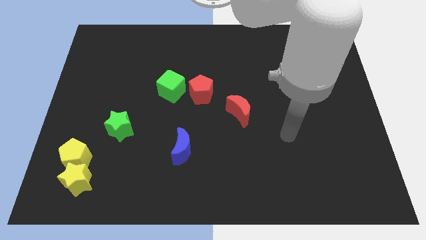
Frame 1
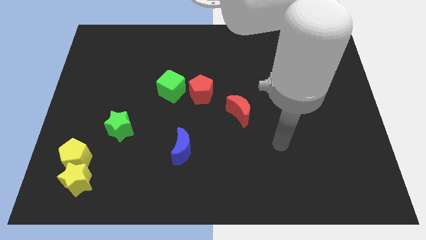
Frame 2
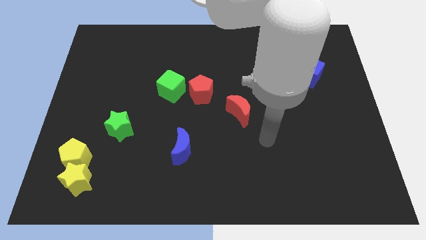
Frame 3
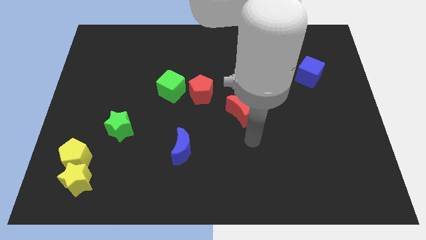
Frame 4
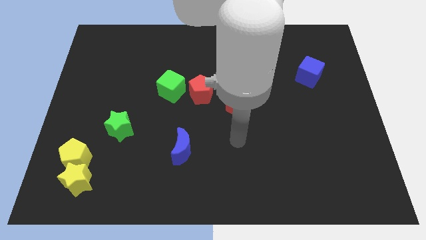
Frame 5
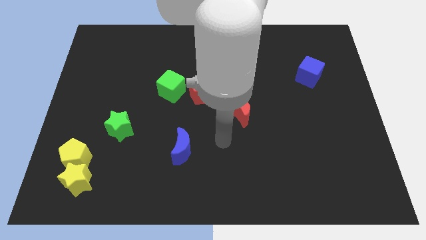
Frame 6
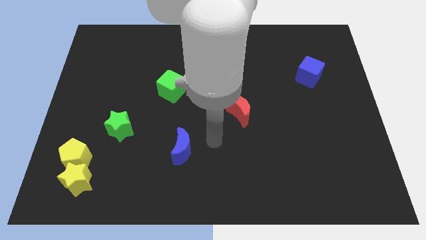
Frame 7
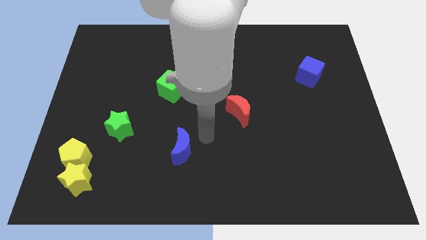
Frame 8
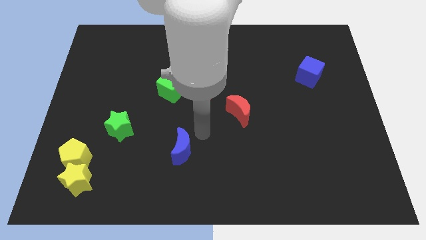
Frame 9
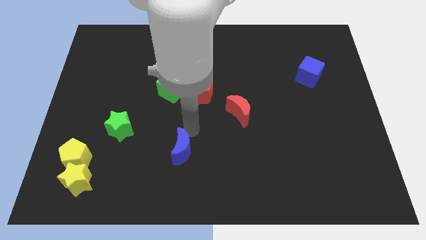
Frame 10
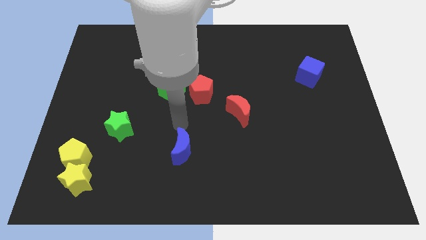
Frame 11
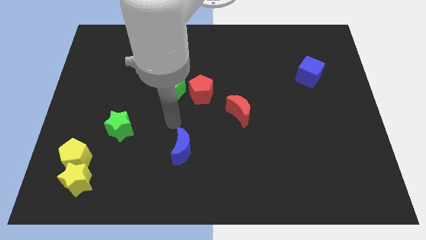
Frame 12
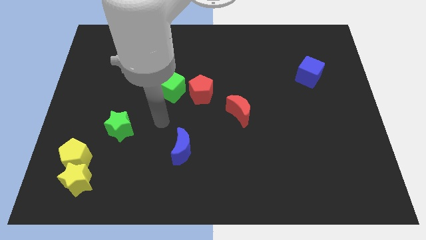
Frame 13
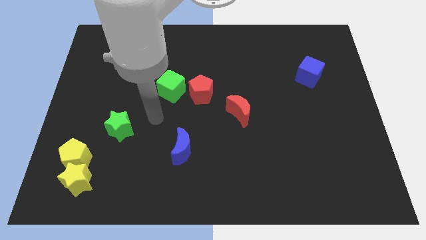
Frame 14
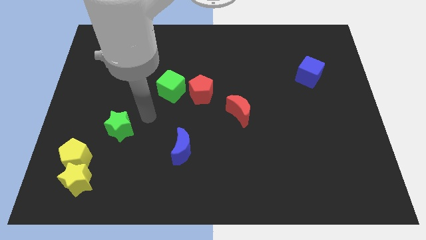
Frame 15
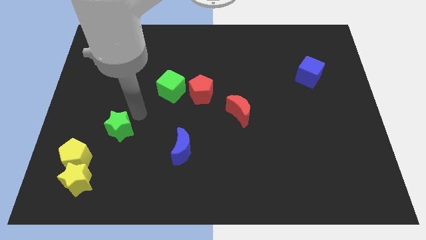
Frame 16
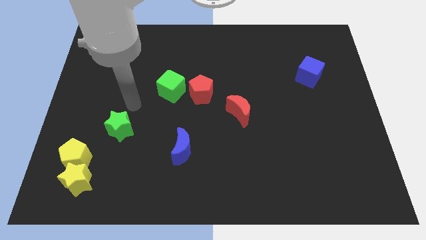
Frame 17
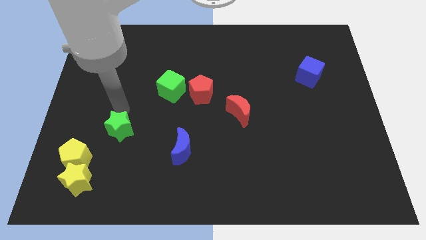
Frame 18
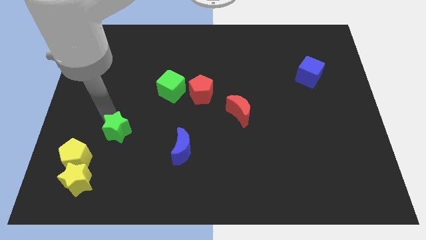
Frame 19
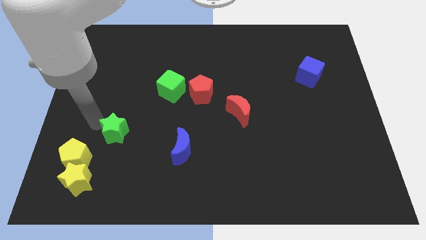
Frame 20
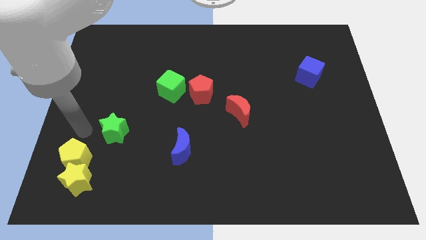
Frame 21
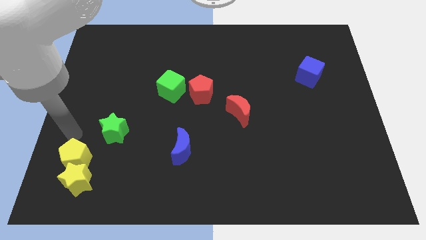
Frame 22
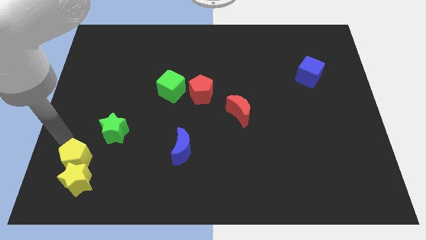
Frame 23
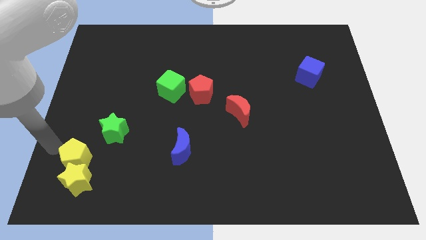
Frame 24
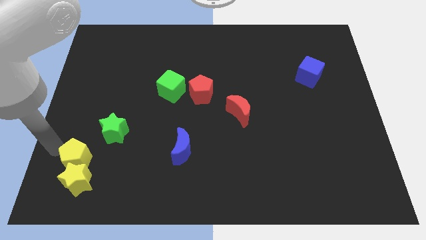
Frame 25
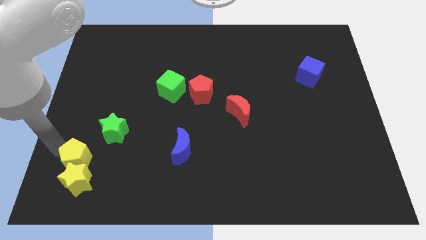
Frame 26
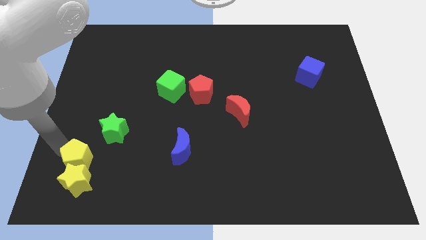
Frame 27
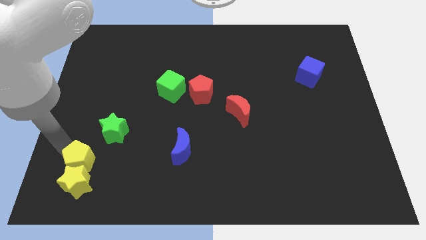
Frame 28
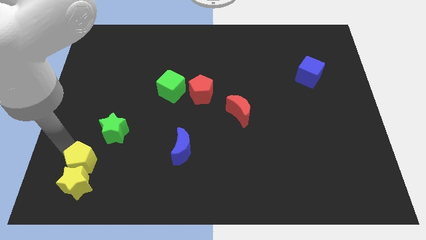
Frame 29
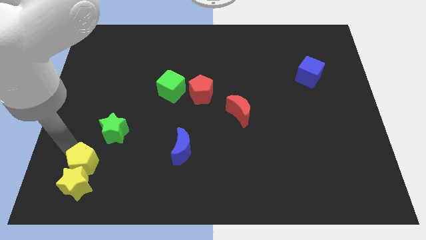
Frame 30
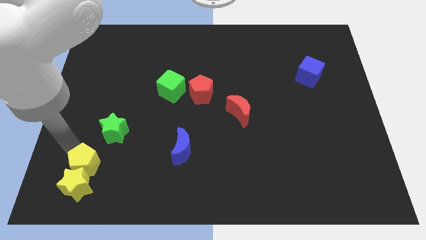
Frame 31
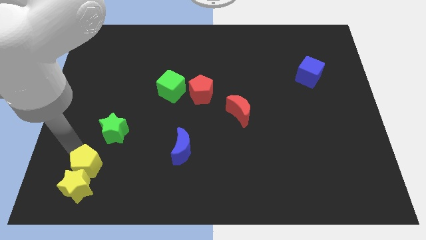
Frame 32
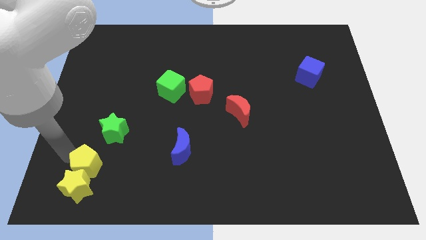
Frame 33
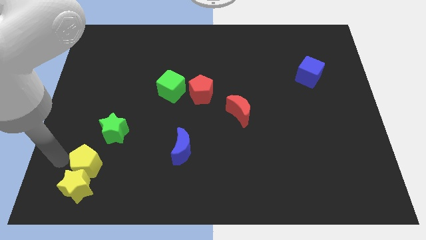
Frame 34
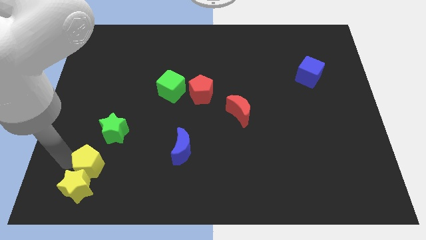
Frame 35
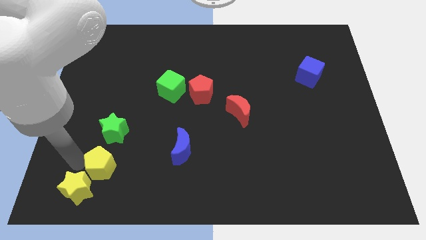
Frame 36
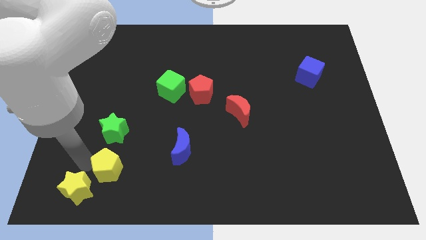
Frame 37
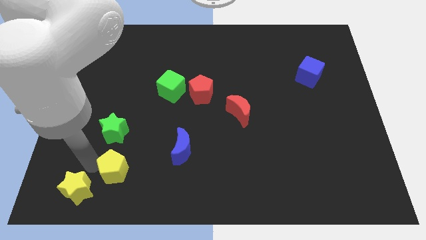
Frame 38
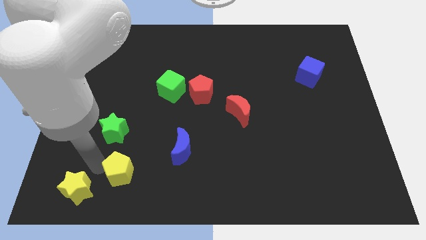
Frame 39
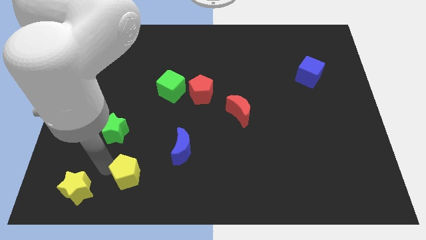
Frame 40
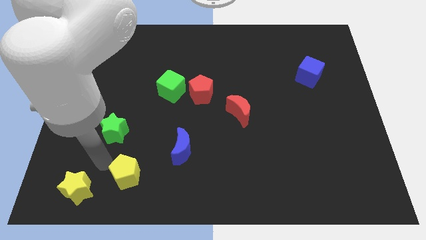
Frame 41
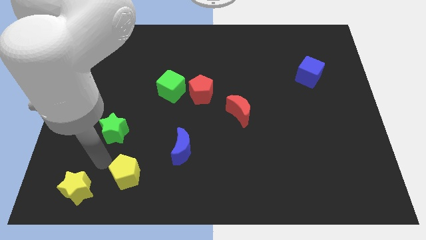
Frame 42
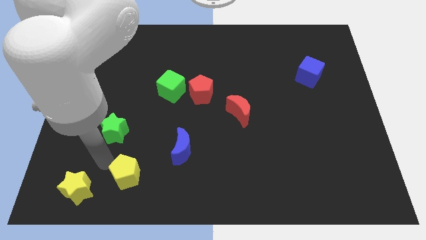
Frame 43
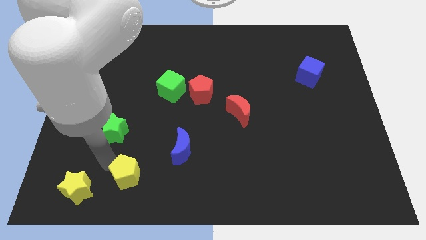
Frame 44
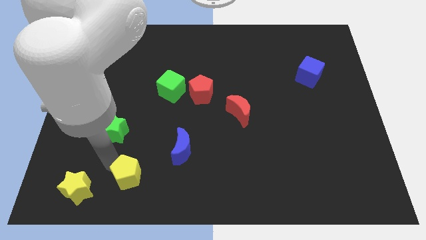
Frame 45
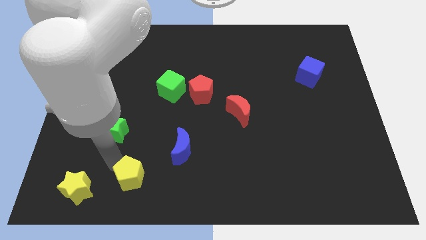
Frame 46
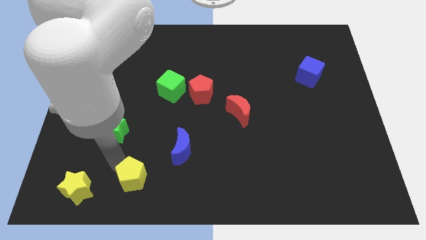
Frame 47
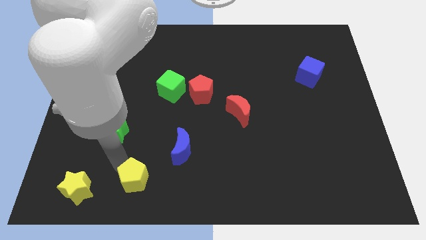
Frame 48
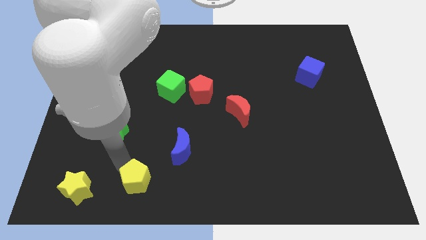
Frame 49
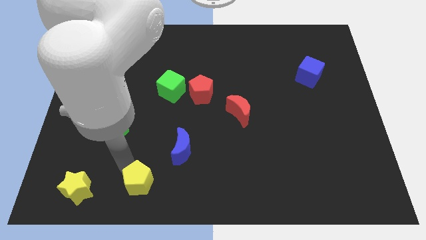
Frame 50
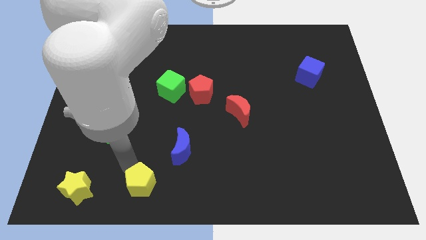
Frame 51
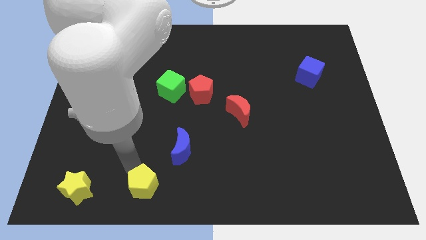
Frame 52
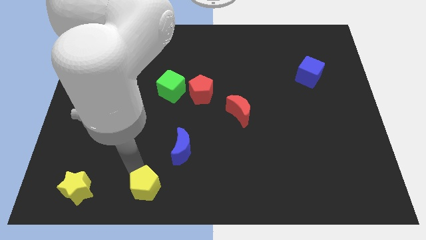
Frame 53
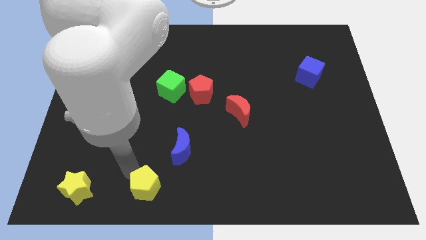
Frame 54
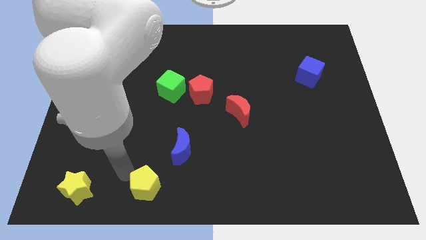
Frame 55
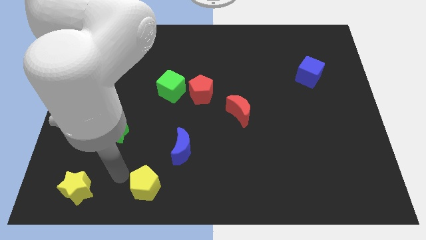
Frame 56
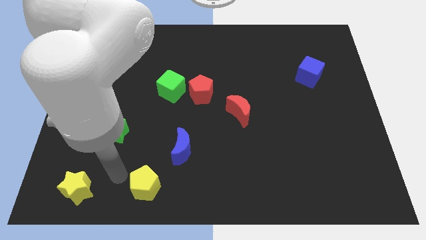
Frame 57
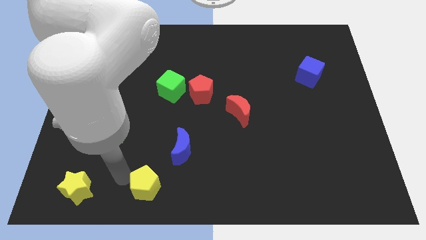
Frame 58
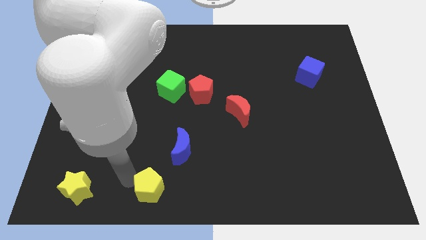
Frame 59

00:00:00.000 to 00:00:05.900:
push the yellow pentagon to the bottom side

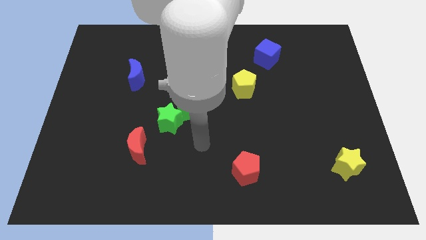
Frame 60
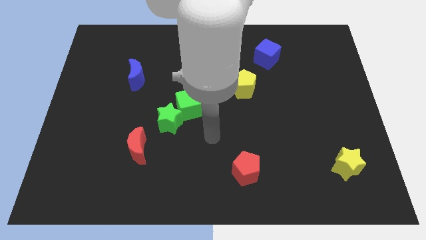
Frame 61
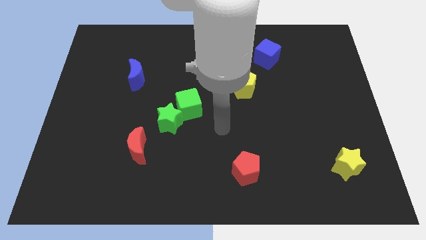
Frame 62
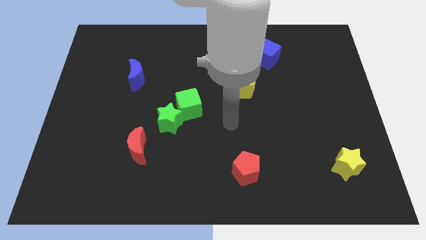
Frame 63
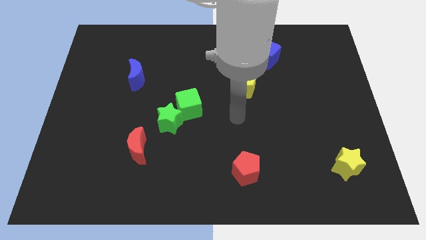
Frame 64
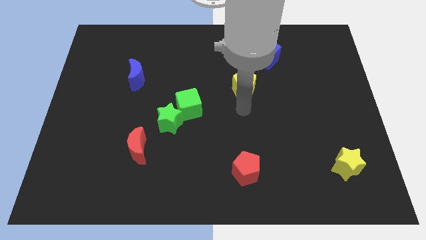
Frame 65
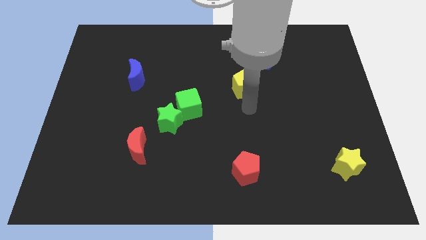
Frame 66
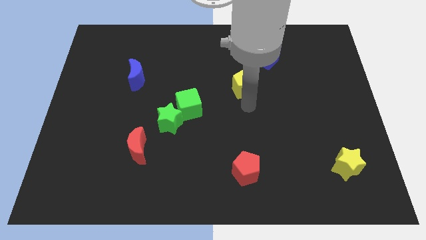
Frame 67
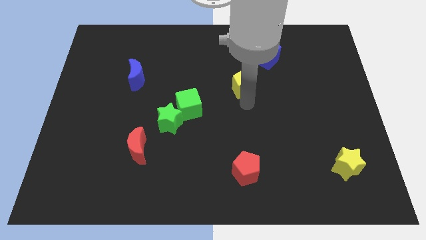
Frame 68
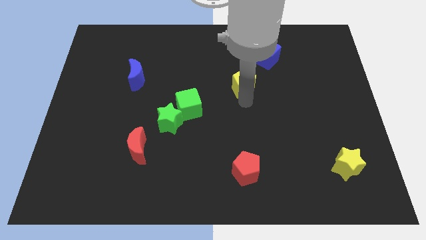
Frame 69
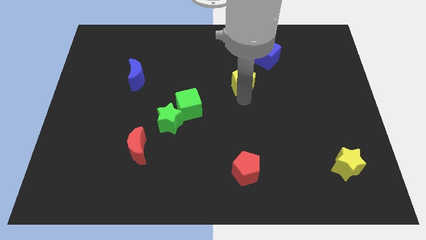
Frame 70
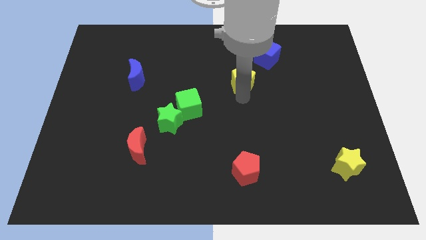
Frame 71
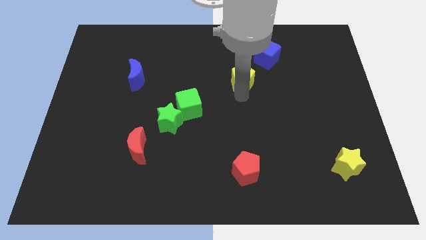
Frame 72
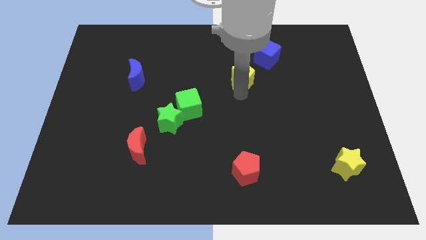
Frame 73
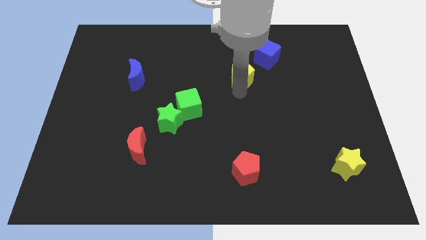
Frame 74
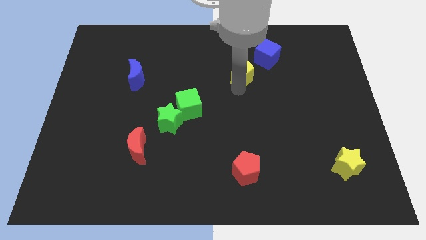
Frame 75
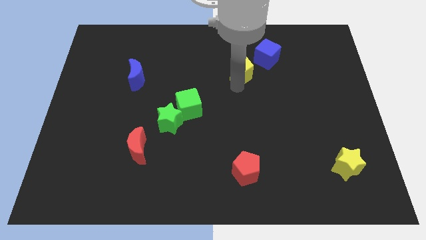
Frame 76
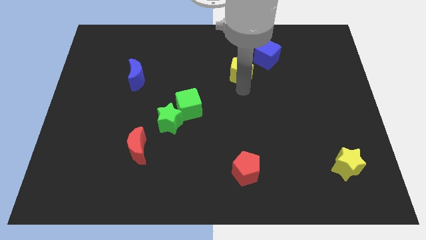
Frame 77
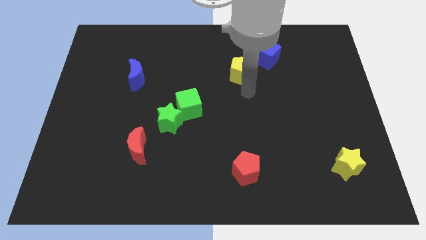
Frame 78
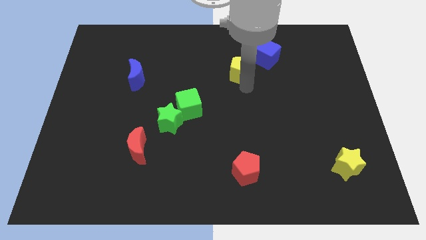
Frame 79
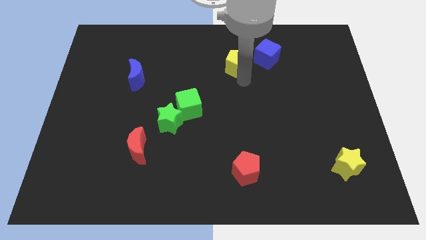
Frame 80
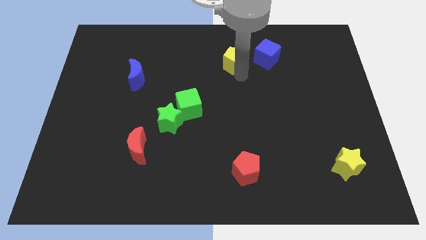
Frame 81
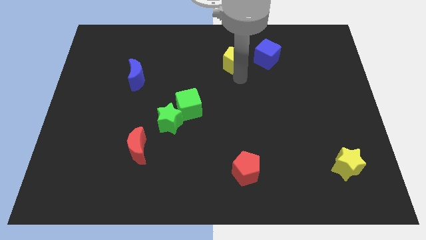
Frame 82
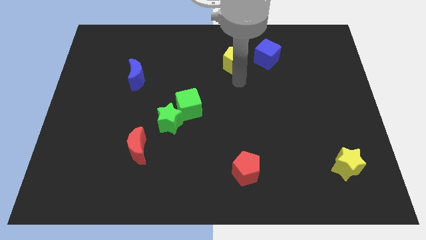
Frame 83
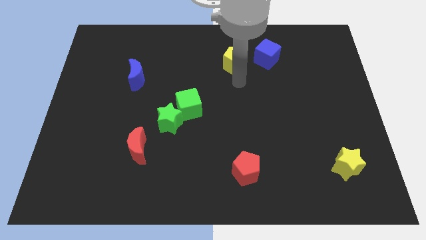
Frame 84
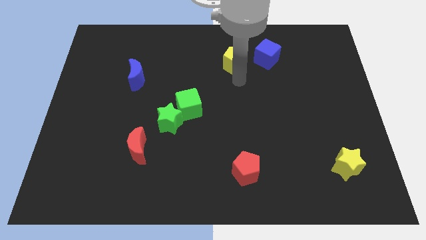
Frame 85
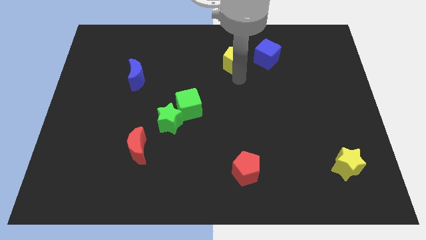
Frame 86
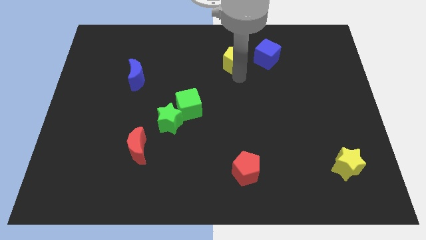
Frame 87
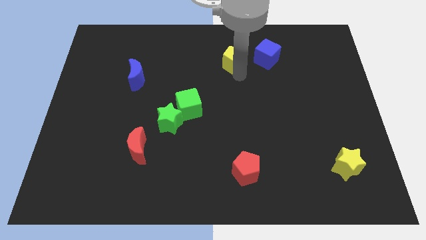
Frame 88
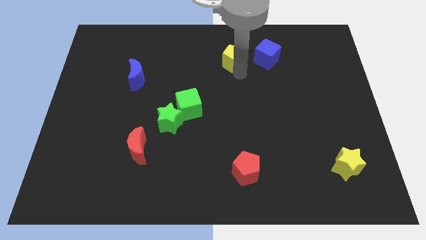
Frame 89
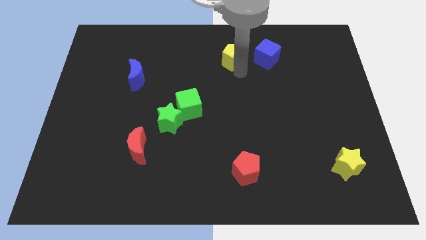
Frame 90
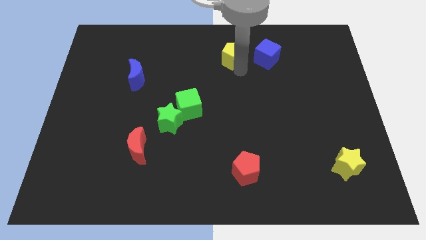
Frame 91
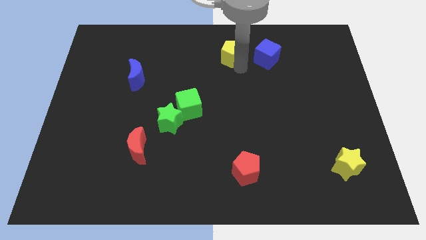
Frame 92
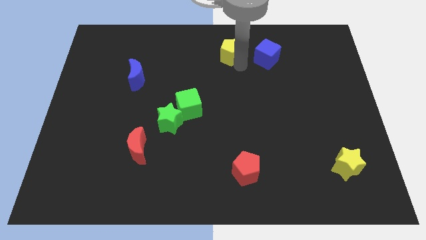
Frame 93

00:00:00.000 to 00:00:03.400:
move the yellow pentagon to the top side
